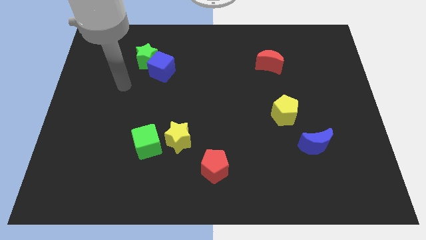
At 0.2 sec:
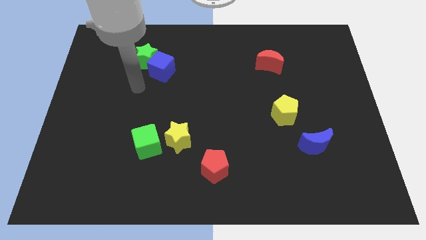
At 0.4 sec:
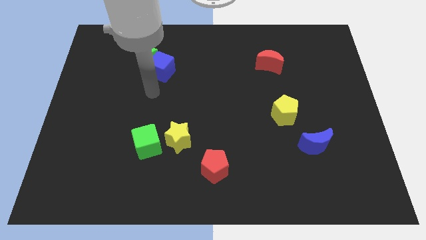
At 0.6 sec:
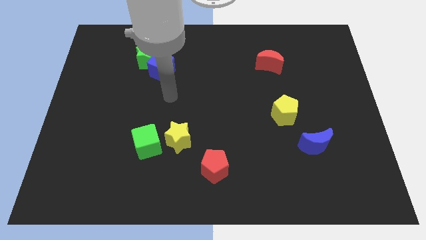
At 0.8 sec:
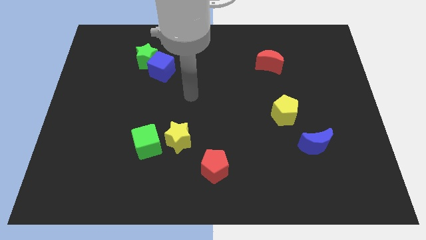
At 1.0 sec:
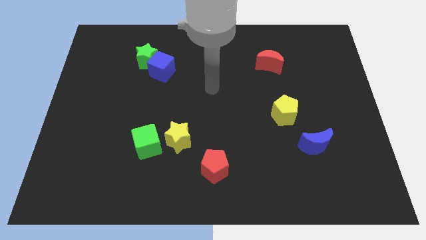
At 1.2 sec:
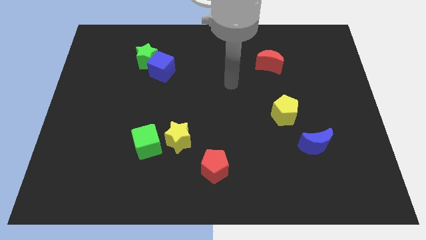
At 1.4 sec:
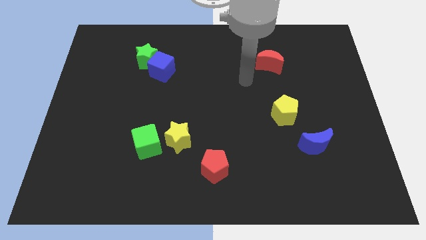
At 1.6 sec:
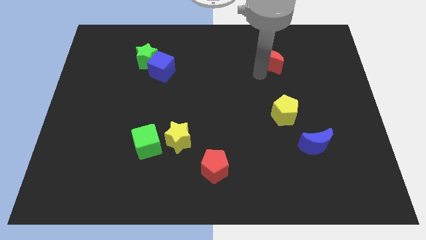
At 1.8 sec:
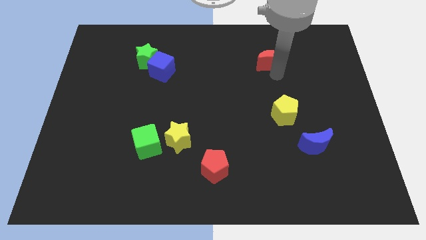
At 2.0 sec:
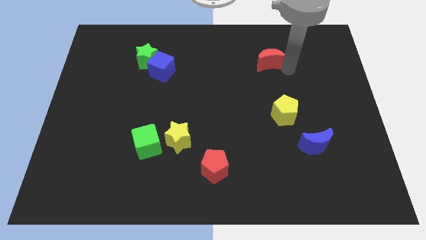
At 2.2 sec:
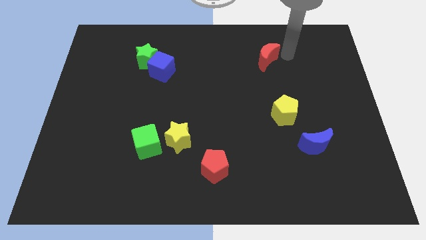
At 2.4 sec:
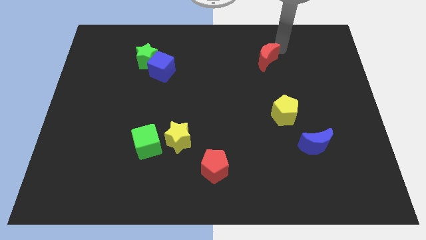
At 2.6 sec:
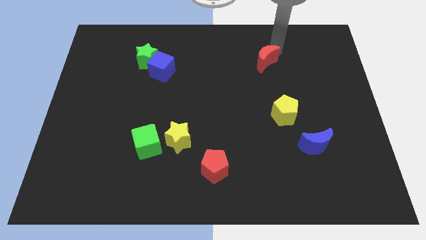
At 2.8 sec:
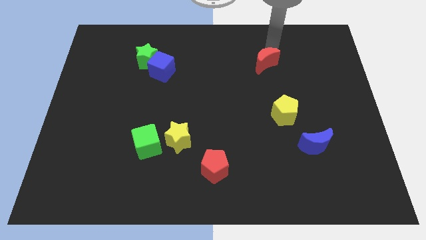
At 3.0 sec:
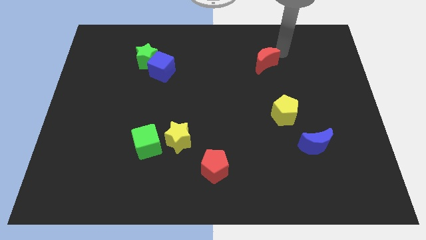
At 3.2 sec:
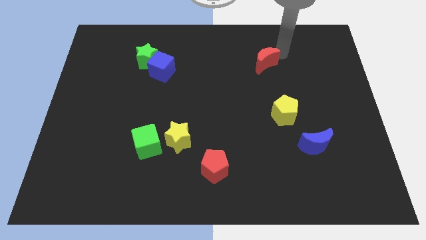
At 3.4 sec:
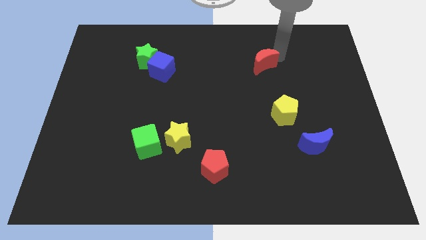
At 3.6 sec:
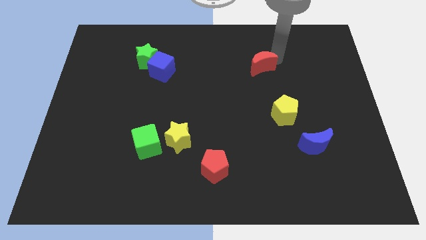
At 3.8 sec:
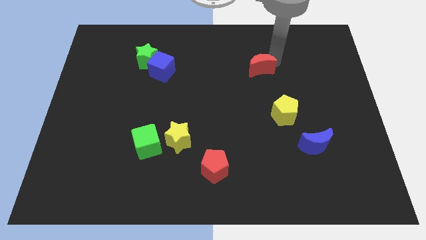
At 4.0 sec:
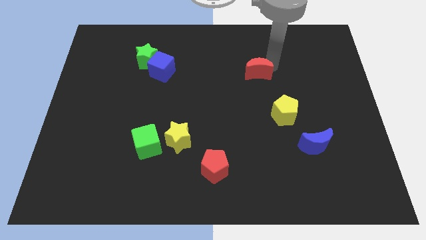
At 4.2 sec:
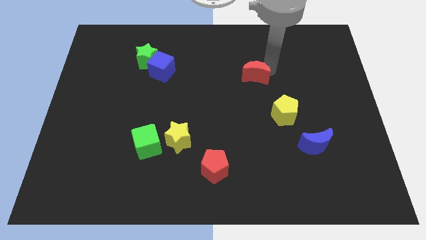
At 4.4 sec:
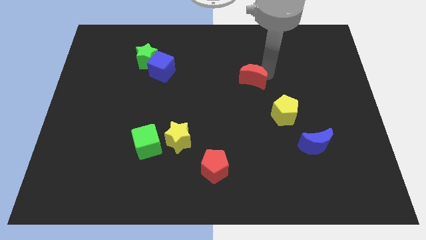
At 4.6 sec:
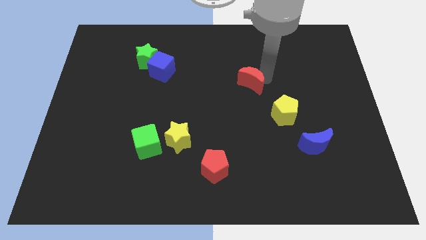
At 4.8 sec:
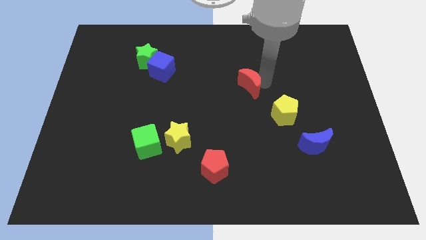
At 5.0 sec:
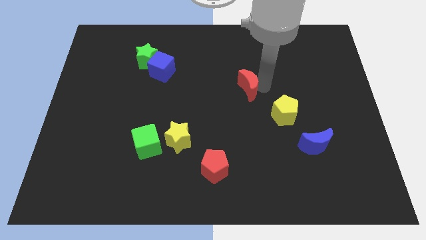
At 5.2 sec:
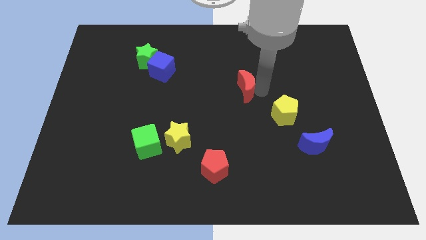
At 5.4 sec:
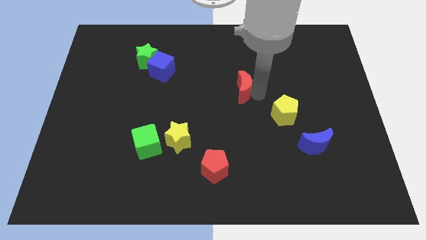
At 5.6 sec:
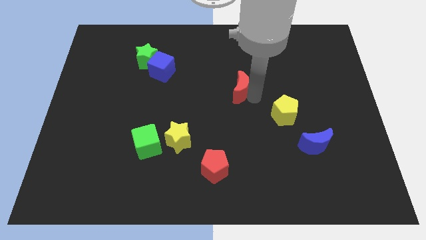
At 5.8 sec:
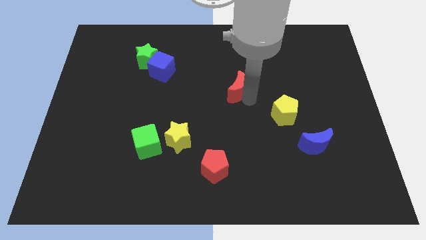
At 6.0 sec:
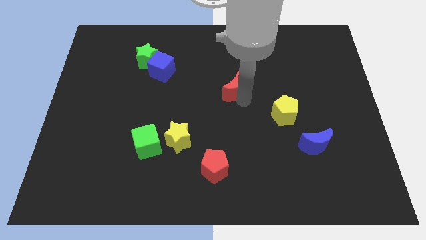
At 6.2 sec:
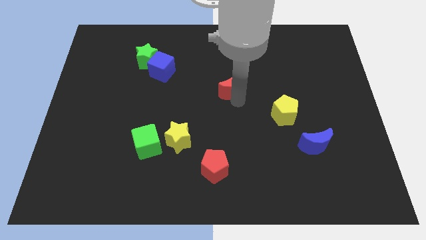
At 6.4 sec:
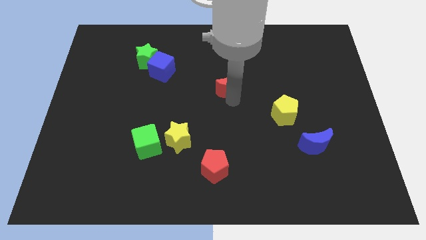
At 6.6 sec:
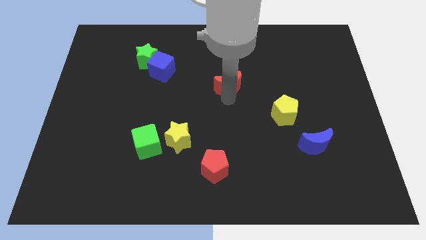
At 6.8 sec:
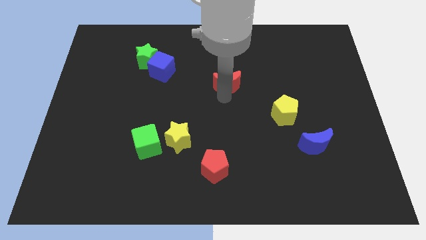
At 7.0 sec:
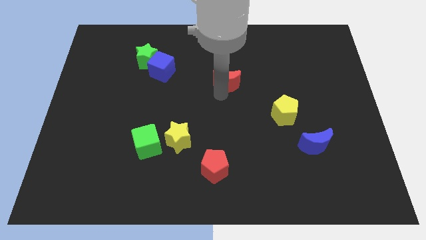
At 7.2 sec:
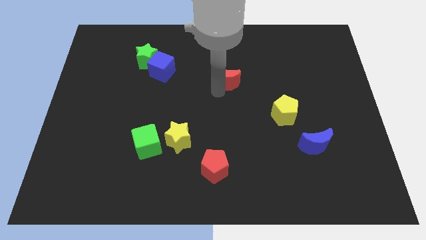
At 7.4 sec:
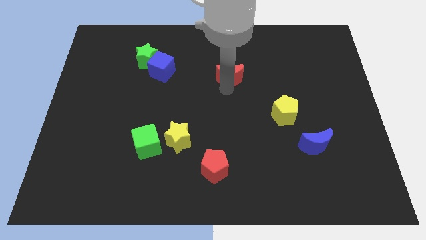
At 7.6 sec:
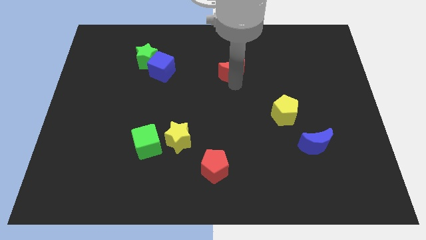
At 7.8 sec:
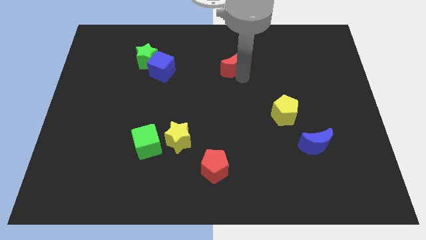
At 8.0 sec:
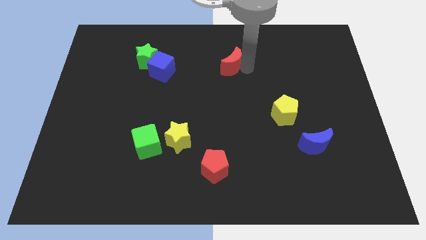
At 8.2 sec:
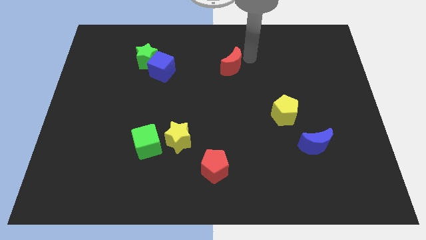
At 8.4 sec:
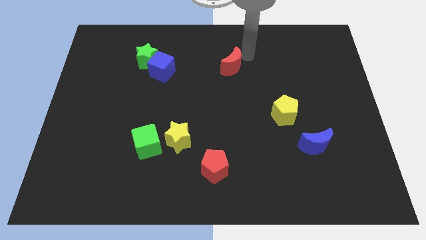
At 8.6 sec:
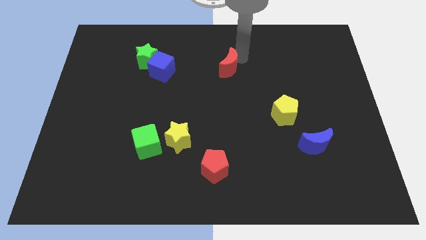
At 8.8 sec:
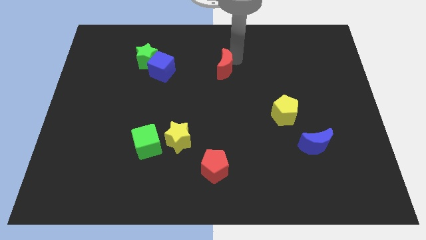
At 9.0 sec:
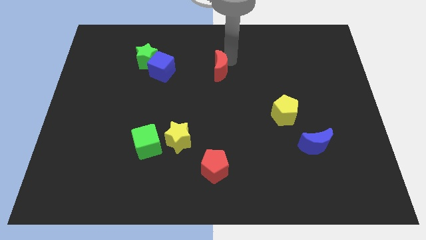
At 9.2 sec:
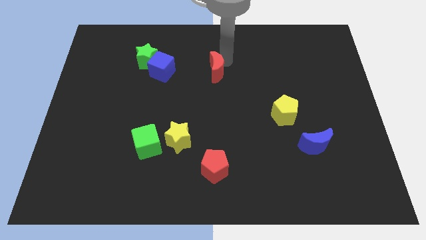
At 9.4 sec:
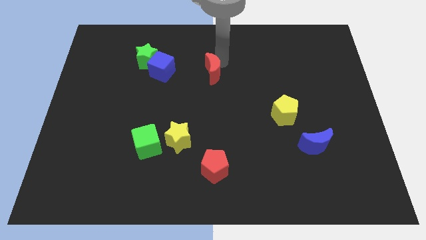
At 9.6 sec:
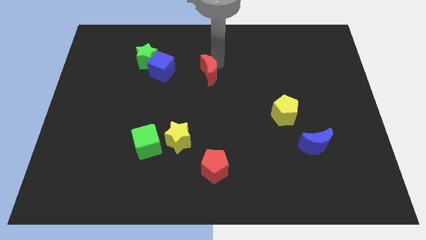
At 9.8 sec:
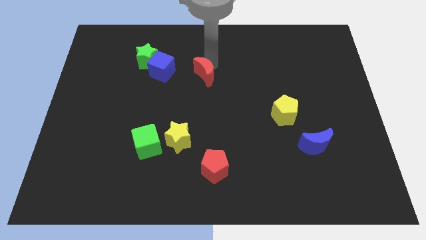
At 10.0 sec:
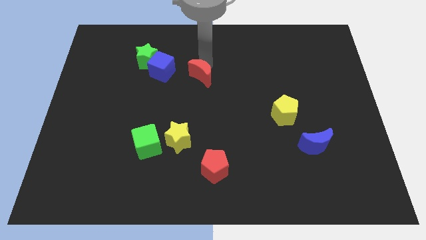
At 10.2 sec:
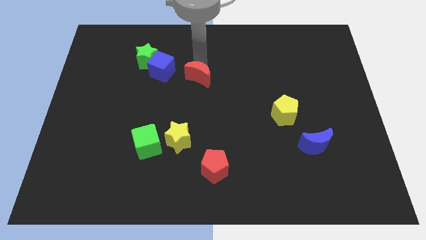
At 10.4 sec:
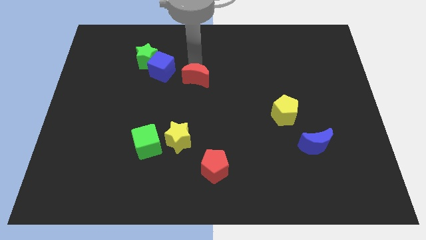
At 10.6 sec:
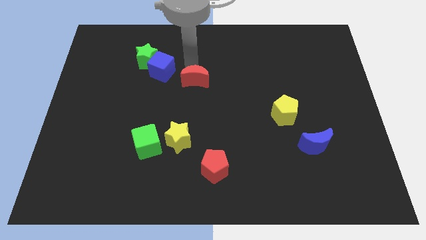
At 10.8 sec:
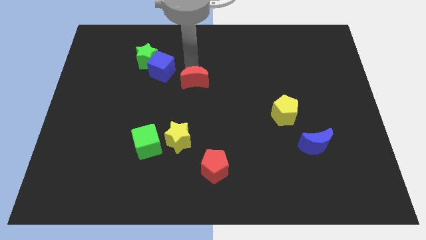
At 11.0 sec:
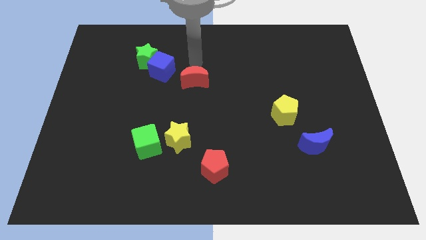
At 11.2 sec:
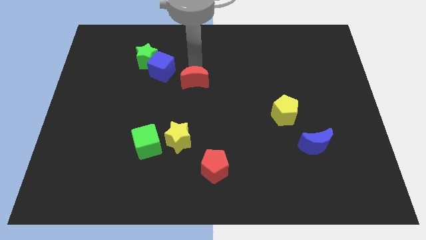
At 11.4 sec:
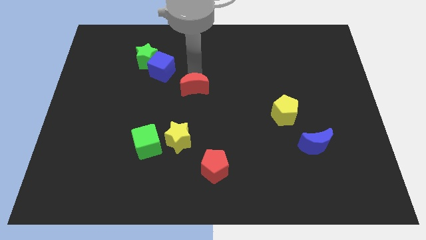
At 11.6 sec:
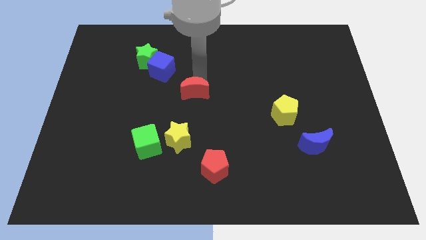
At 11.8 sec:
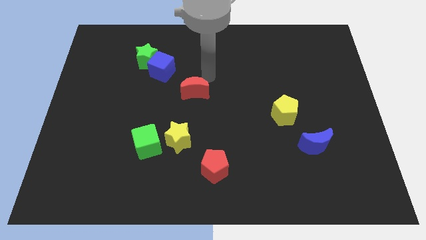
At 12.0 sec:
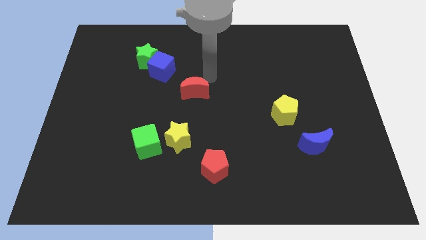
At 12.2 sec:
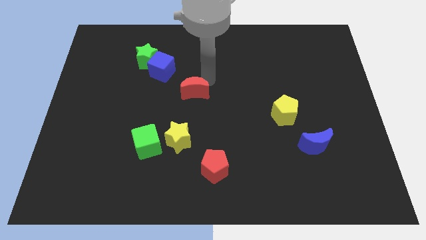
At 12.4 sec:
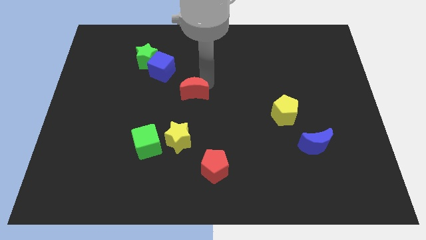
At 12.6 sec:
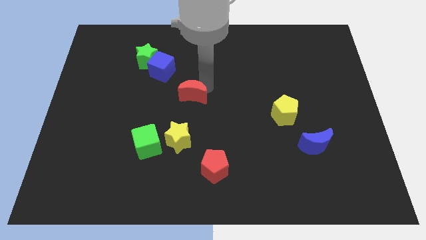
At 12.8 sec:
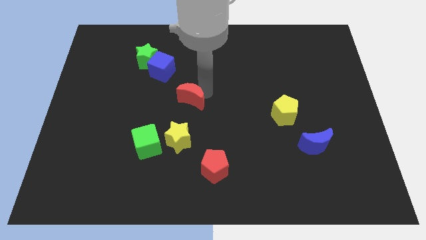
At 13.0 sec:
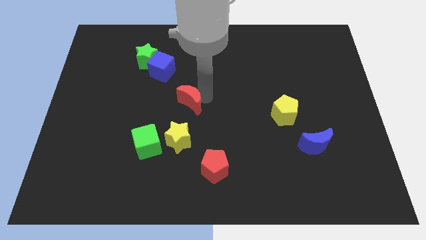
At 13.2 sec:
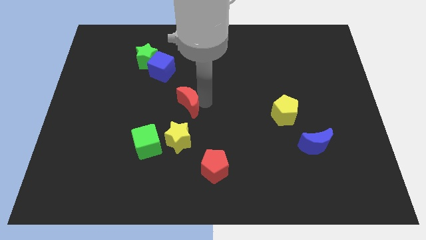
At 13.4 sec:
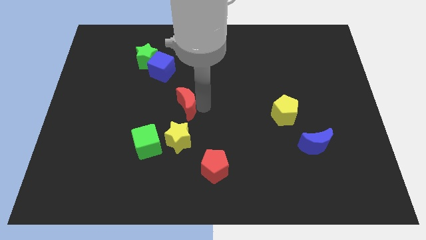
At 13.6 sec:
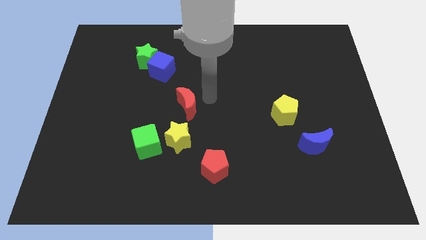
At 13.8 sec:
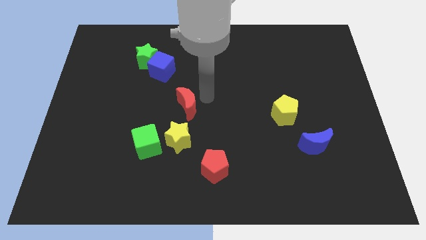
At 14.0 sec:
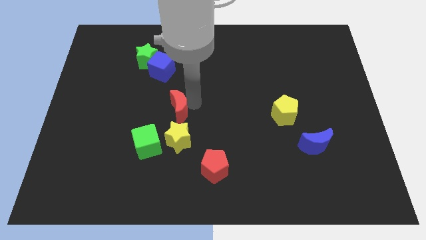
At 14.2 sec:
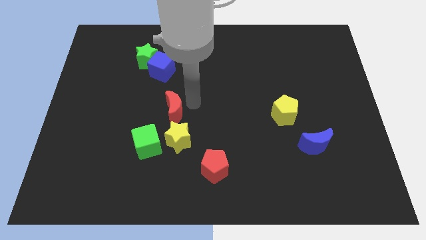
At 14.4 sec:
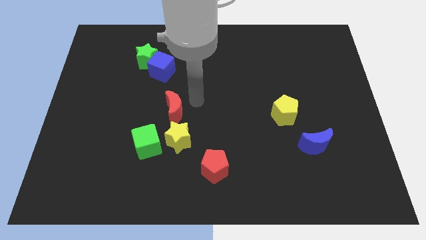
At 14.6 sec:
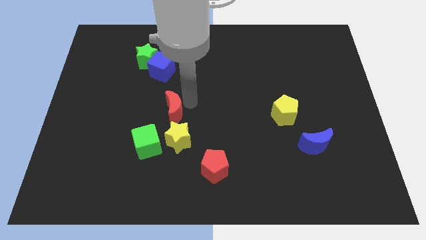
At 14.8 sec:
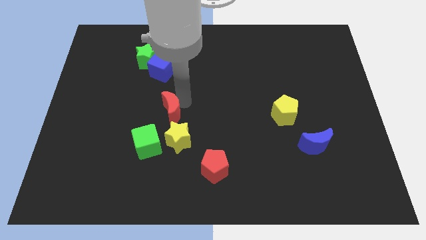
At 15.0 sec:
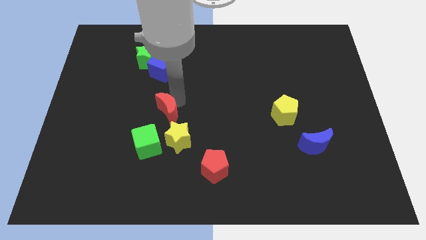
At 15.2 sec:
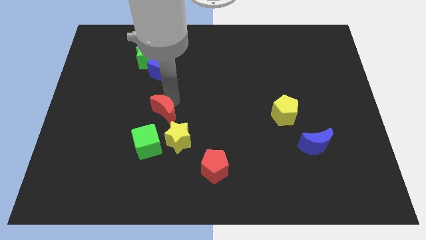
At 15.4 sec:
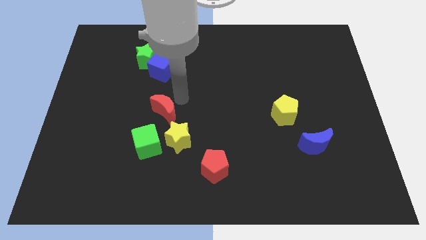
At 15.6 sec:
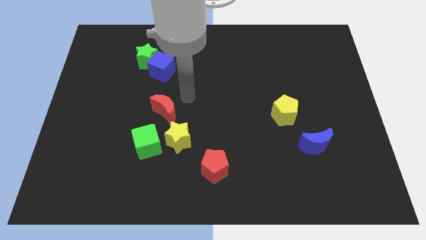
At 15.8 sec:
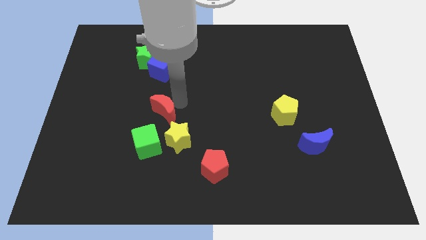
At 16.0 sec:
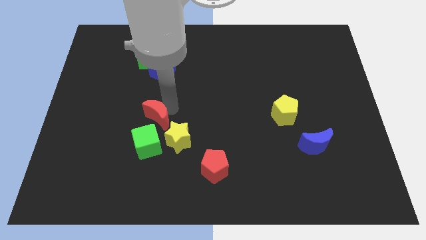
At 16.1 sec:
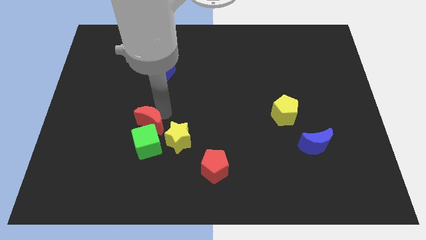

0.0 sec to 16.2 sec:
push the red moon to the left side of the yellow star
